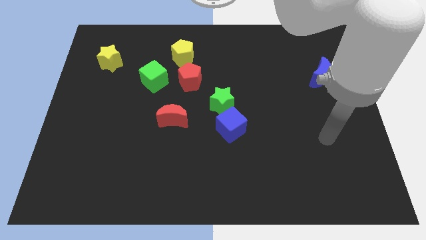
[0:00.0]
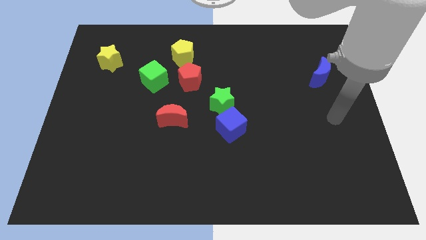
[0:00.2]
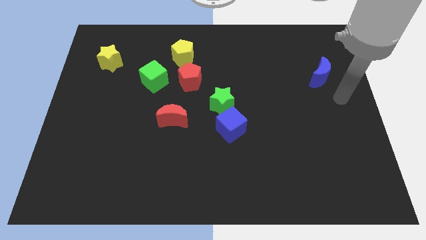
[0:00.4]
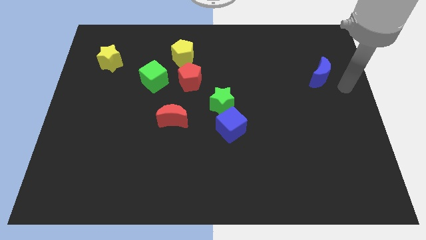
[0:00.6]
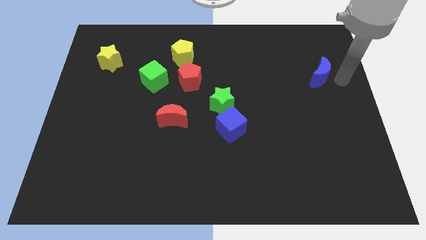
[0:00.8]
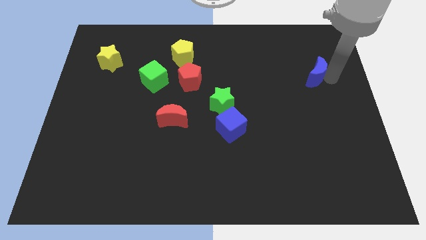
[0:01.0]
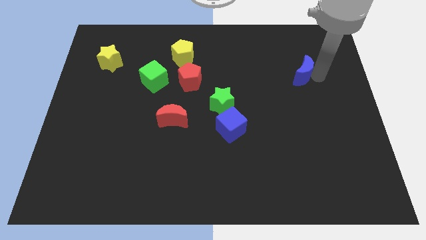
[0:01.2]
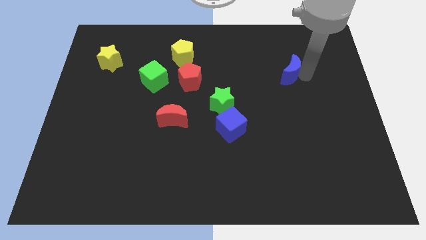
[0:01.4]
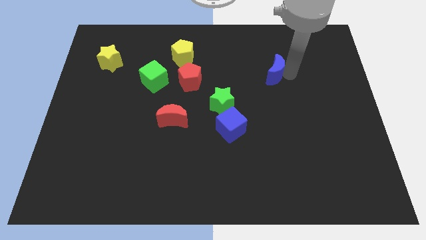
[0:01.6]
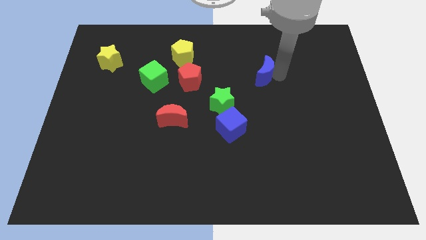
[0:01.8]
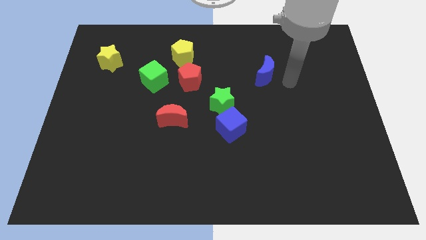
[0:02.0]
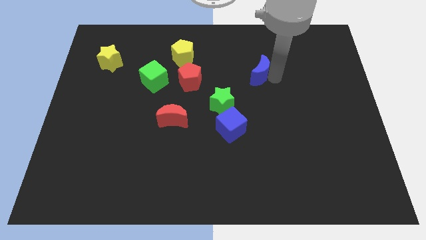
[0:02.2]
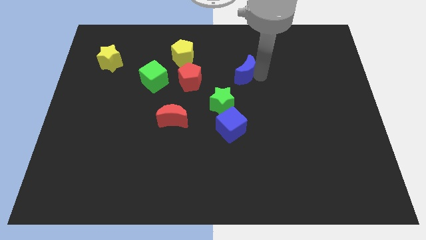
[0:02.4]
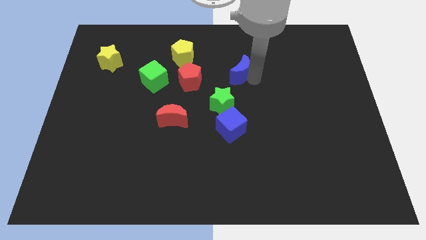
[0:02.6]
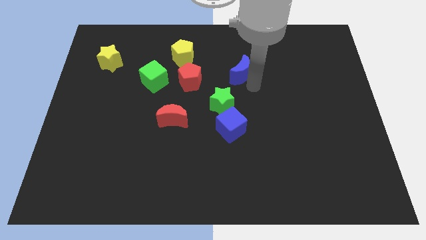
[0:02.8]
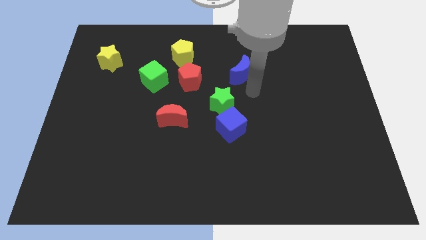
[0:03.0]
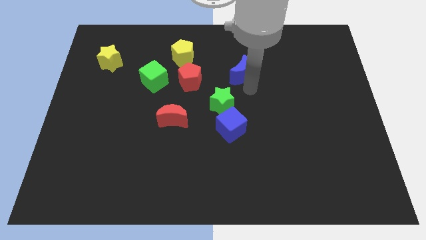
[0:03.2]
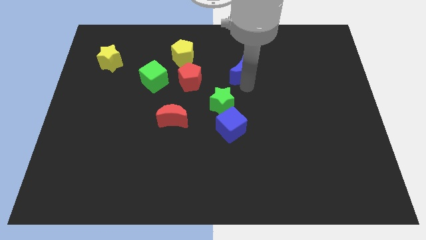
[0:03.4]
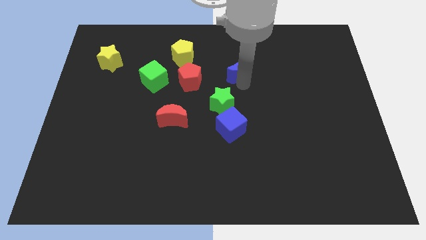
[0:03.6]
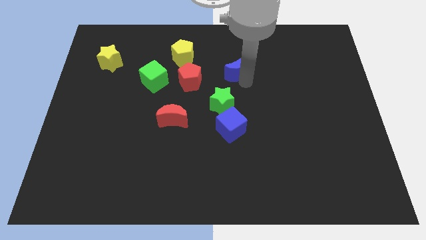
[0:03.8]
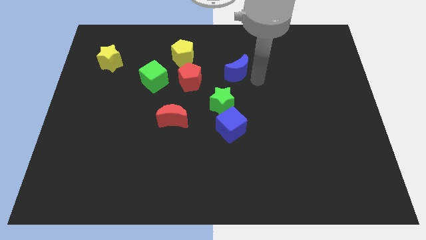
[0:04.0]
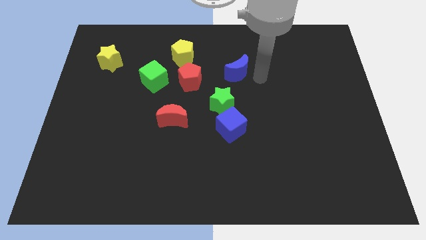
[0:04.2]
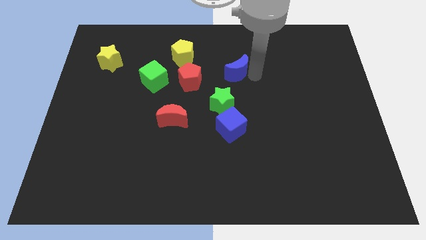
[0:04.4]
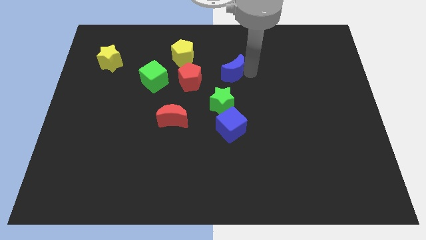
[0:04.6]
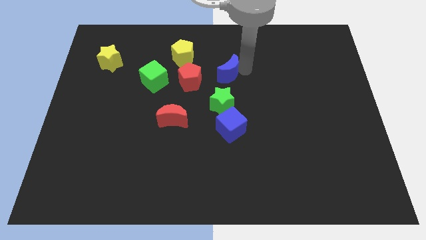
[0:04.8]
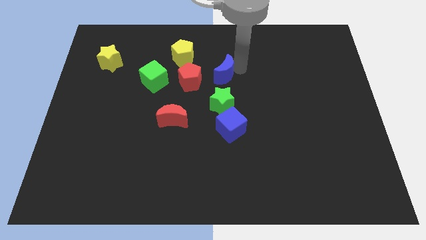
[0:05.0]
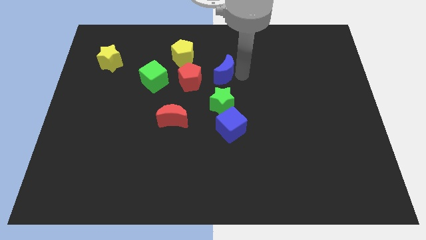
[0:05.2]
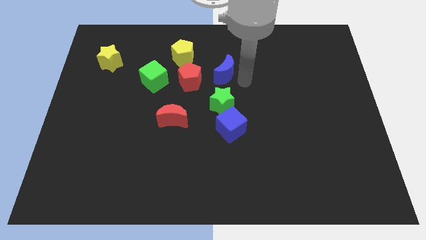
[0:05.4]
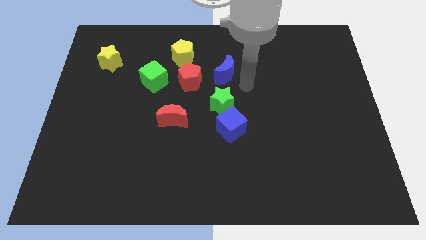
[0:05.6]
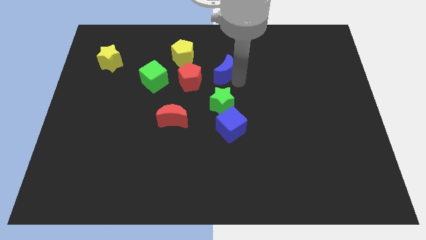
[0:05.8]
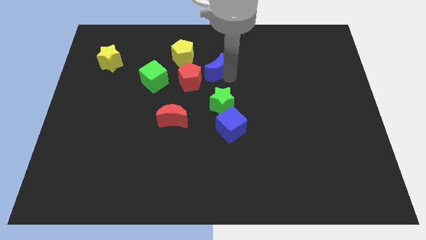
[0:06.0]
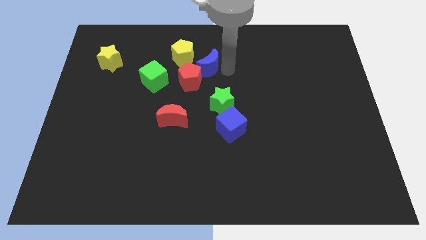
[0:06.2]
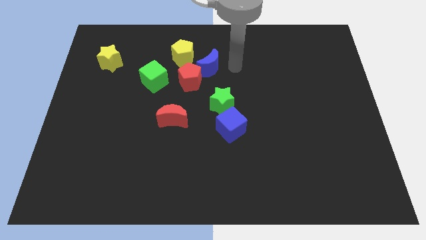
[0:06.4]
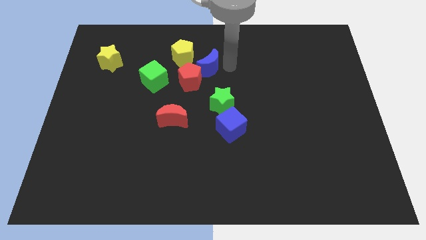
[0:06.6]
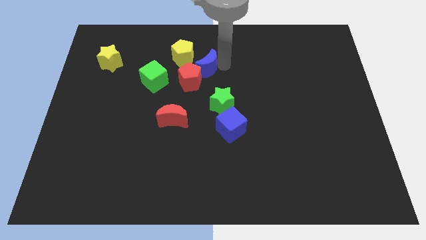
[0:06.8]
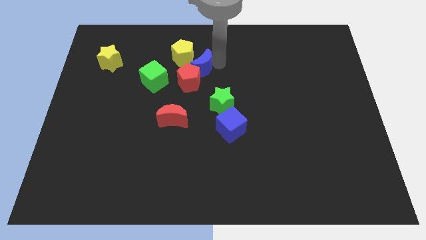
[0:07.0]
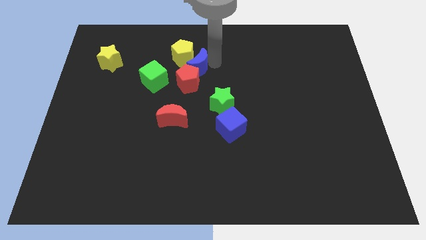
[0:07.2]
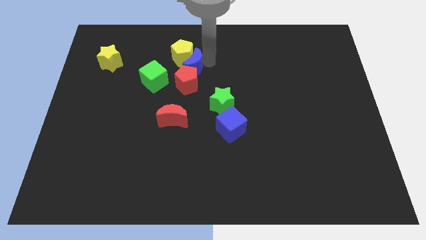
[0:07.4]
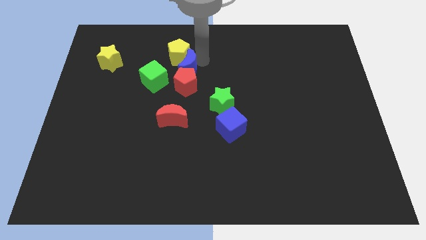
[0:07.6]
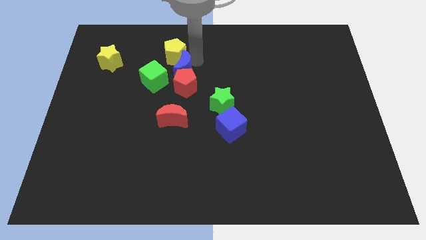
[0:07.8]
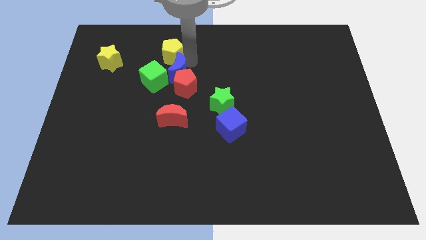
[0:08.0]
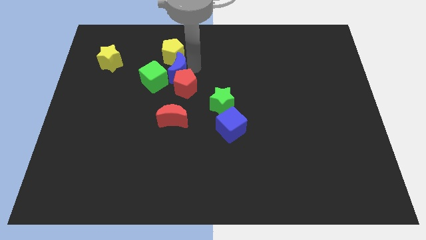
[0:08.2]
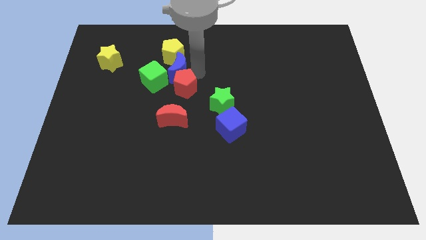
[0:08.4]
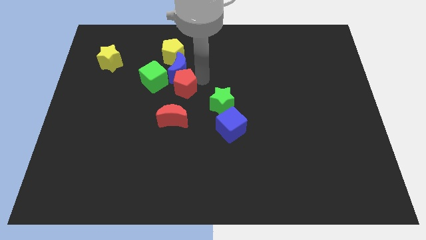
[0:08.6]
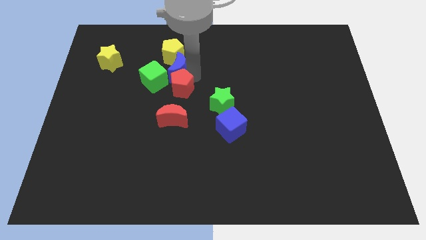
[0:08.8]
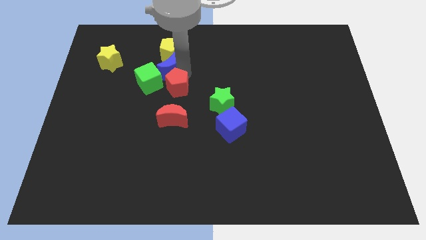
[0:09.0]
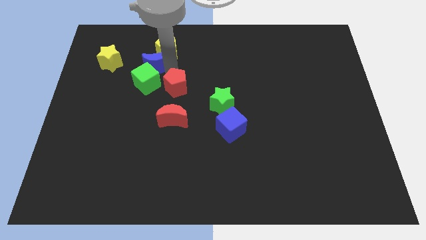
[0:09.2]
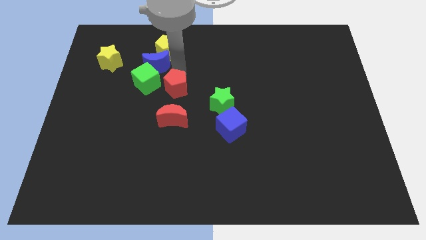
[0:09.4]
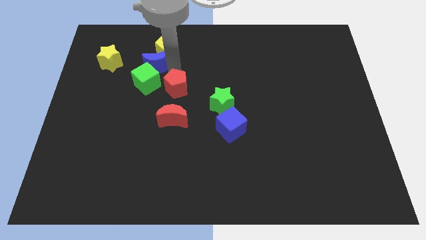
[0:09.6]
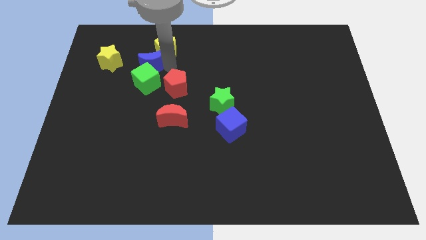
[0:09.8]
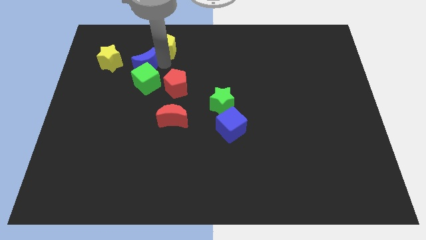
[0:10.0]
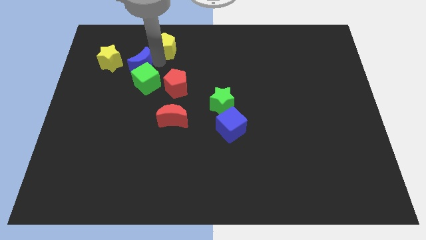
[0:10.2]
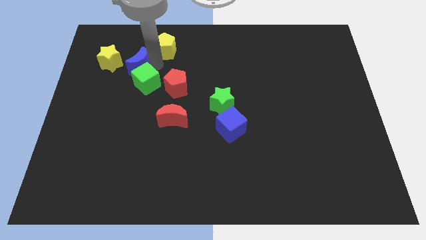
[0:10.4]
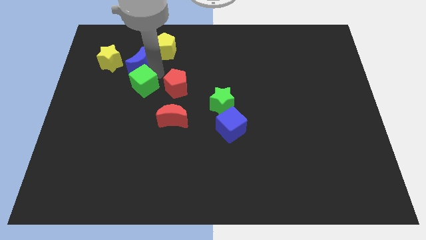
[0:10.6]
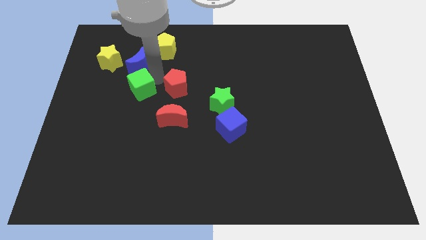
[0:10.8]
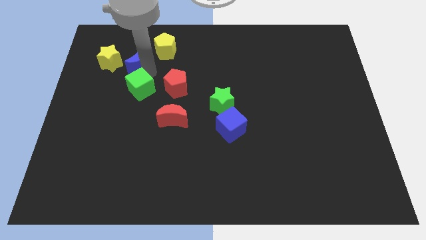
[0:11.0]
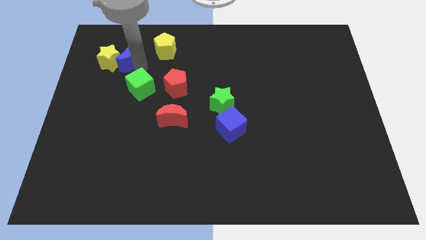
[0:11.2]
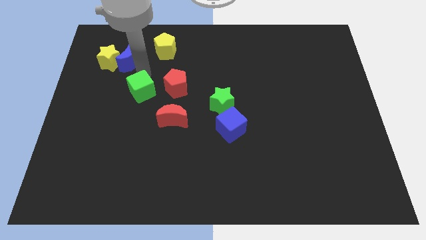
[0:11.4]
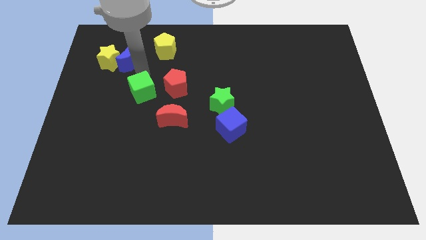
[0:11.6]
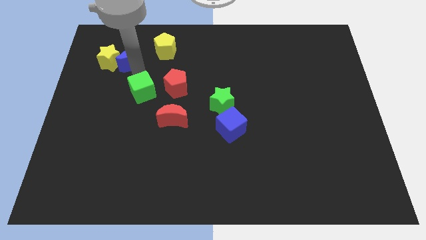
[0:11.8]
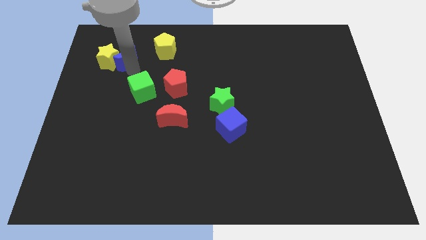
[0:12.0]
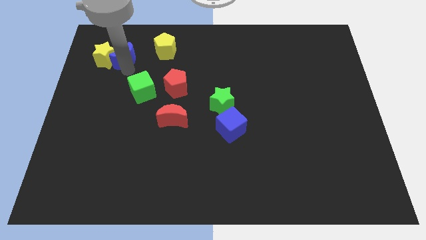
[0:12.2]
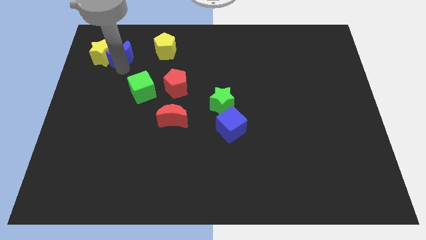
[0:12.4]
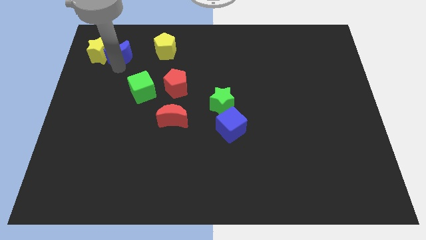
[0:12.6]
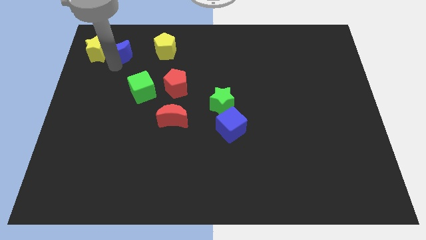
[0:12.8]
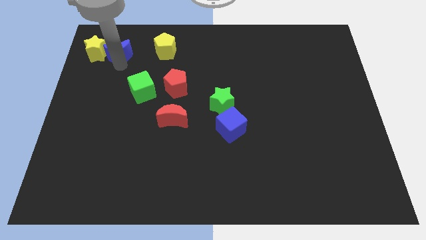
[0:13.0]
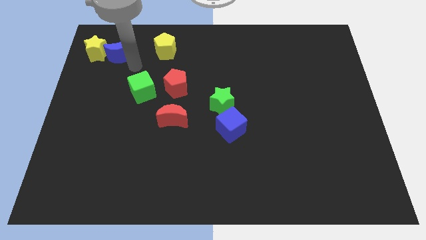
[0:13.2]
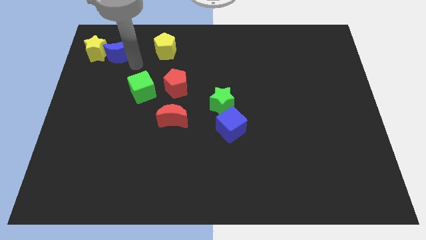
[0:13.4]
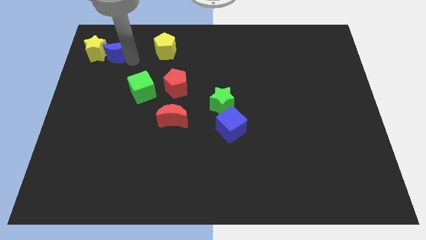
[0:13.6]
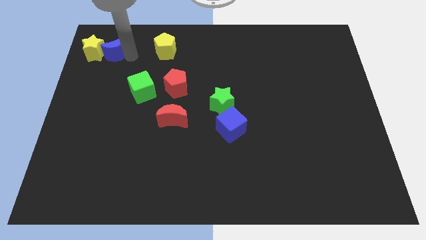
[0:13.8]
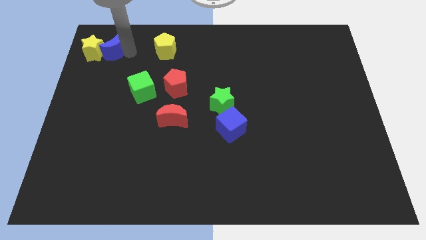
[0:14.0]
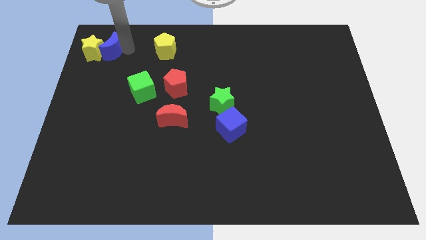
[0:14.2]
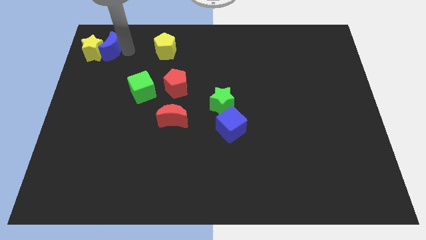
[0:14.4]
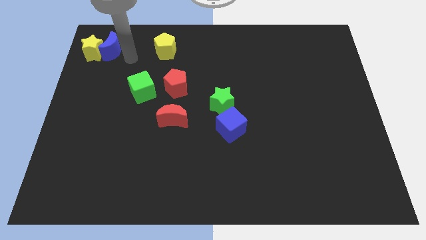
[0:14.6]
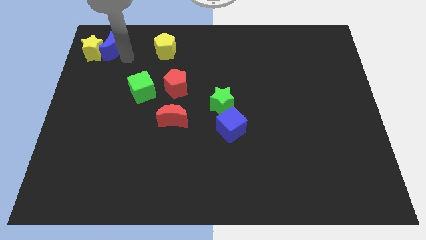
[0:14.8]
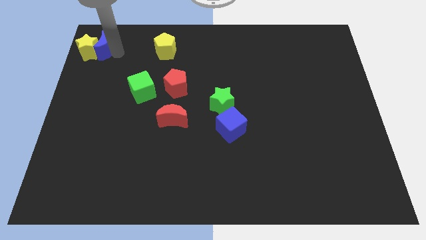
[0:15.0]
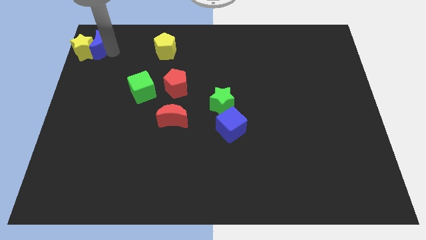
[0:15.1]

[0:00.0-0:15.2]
put the blue moon to the top left of the board
